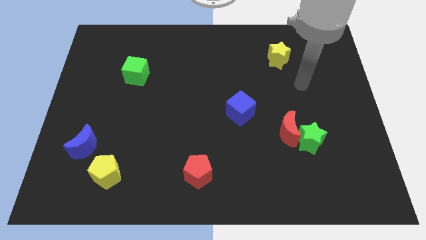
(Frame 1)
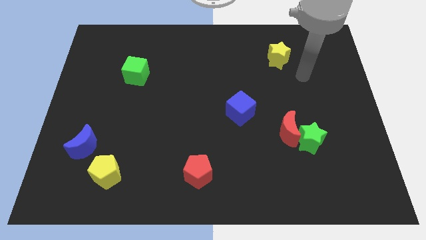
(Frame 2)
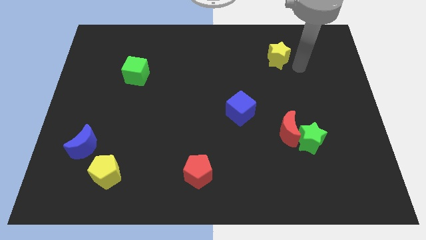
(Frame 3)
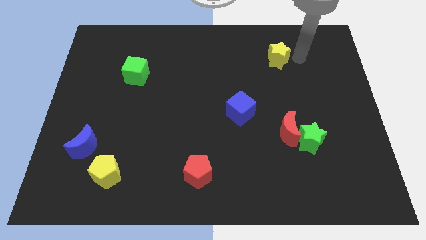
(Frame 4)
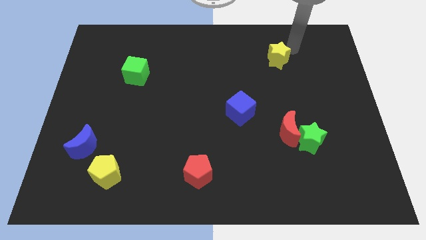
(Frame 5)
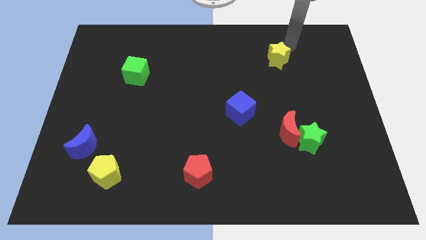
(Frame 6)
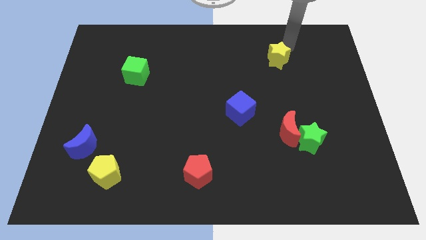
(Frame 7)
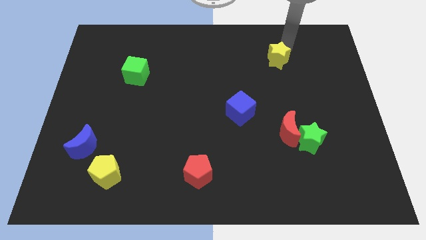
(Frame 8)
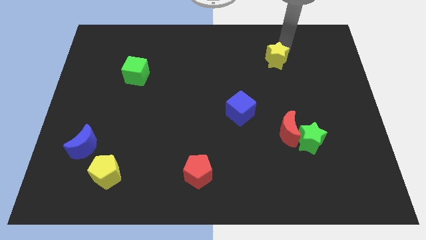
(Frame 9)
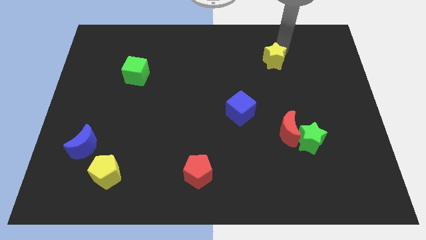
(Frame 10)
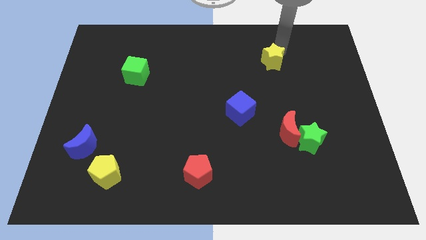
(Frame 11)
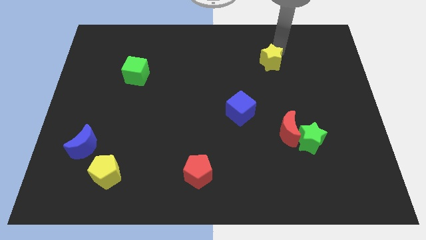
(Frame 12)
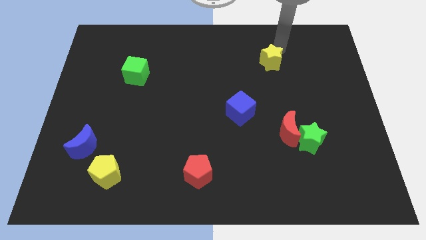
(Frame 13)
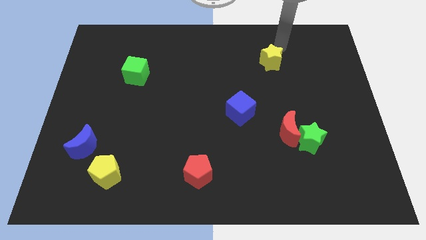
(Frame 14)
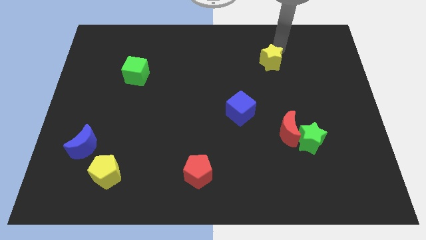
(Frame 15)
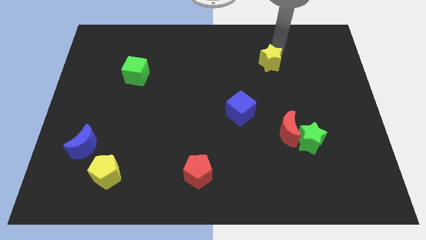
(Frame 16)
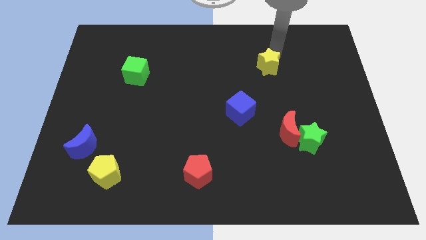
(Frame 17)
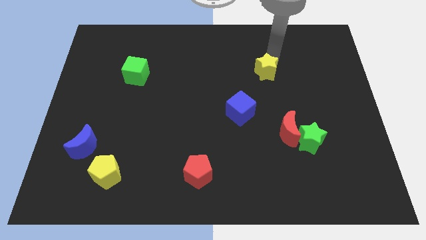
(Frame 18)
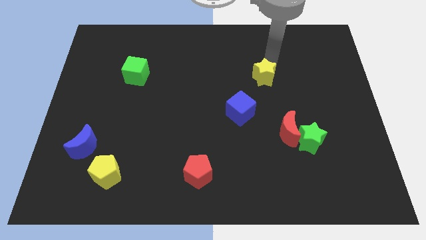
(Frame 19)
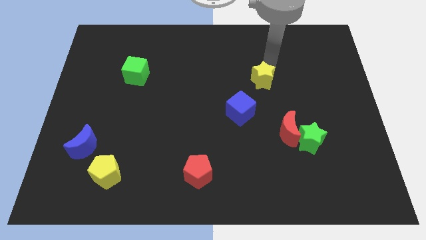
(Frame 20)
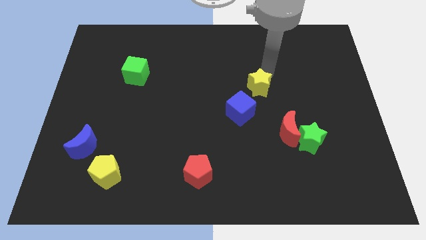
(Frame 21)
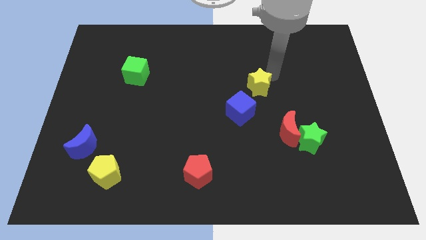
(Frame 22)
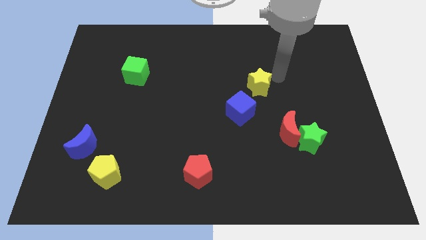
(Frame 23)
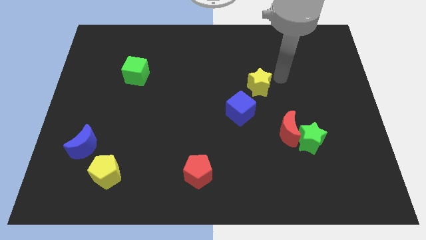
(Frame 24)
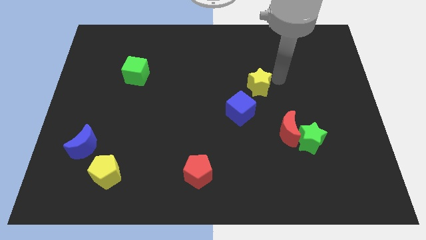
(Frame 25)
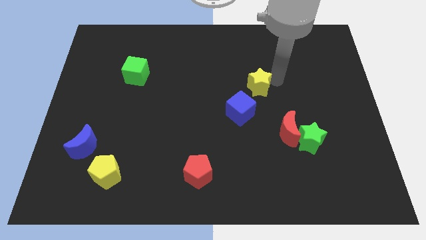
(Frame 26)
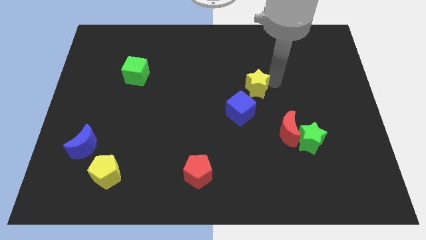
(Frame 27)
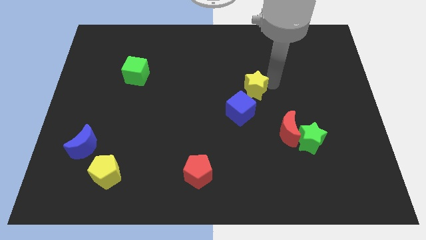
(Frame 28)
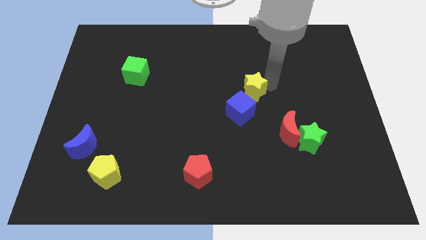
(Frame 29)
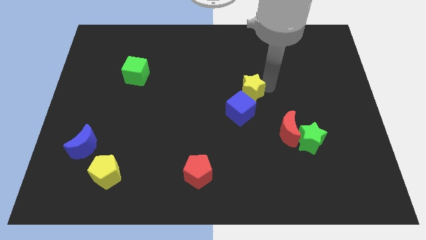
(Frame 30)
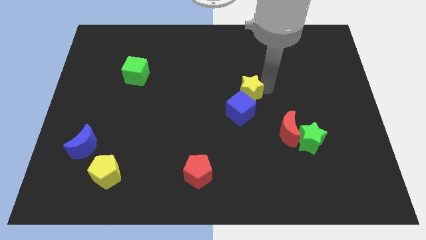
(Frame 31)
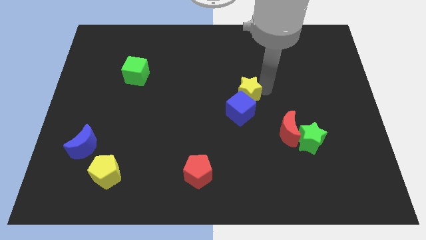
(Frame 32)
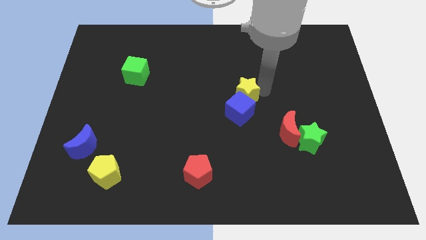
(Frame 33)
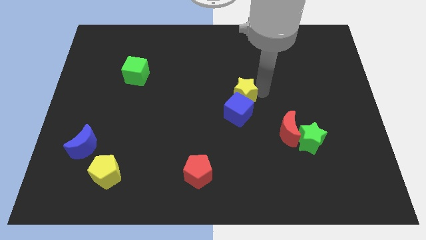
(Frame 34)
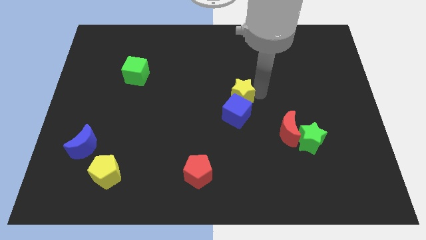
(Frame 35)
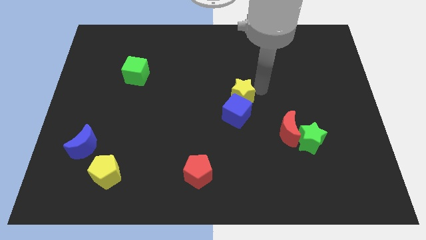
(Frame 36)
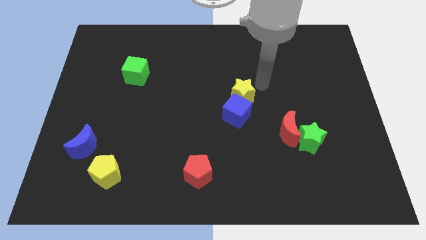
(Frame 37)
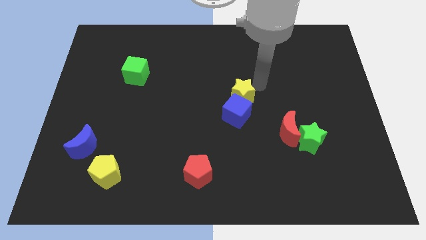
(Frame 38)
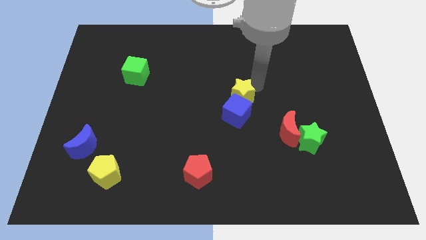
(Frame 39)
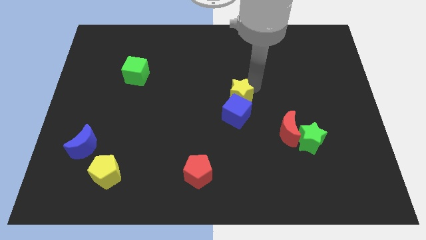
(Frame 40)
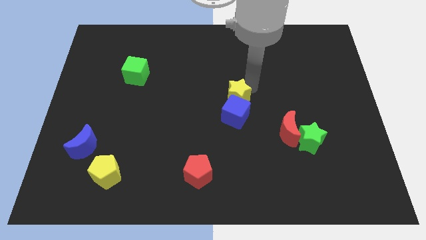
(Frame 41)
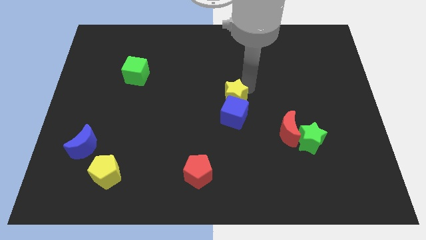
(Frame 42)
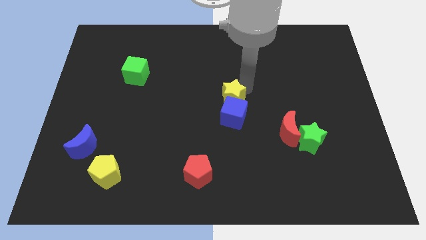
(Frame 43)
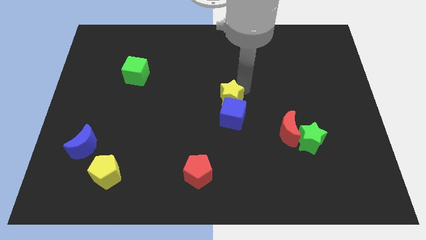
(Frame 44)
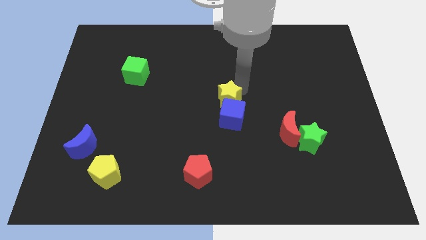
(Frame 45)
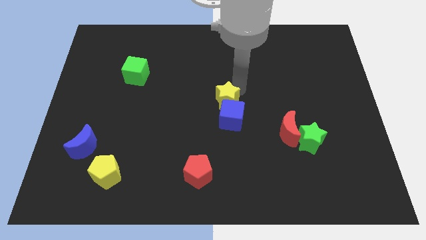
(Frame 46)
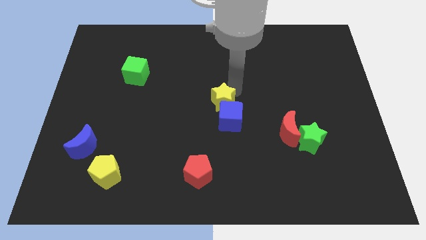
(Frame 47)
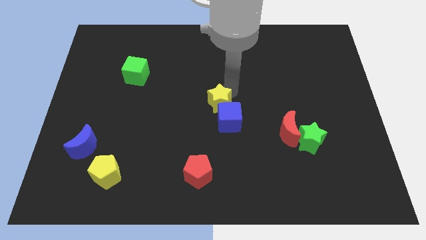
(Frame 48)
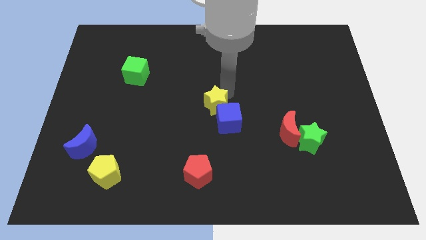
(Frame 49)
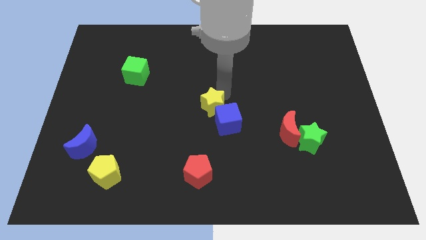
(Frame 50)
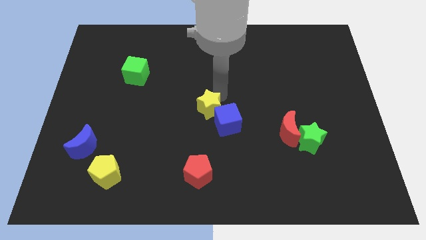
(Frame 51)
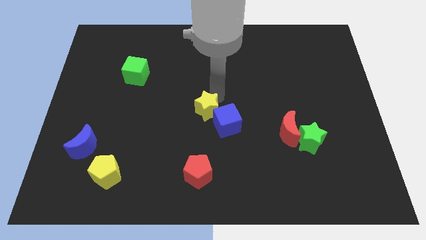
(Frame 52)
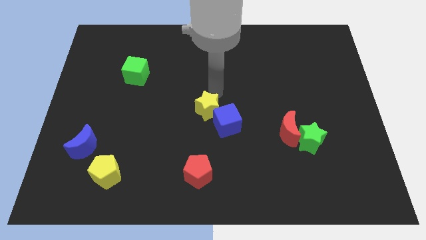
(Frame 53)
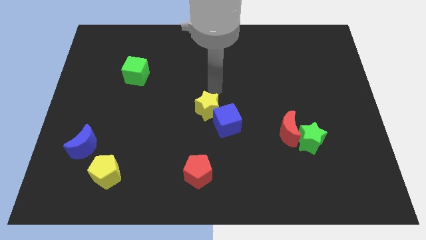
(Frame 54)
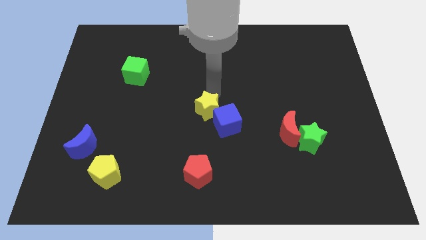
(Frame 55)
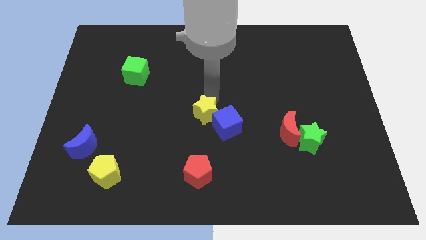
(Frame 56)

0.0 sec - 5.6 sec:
put the yellow star to the top side of the red pentagon

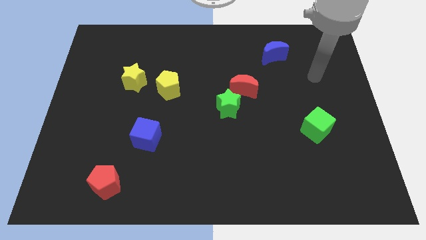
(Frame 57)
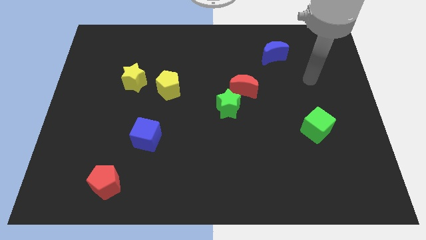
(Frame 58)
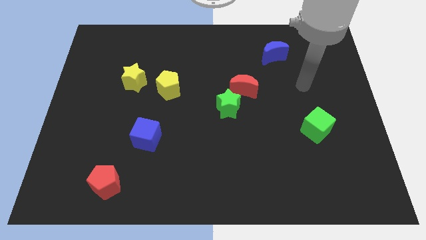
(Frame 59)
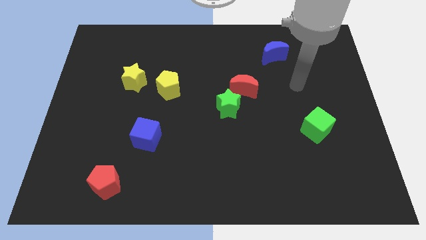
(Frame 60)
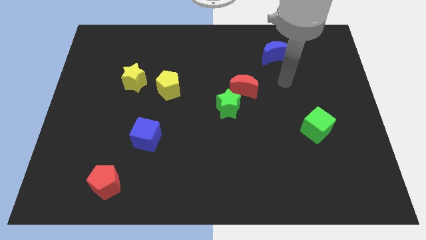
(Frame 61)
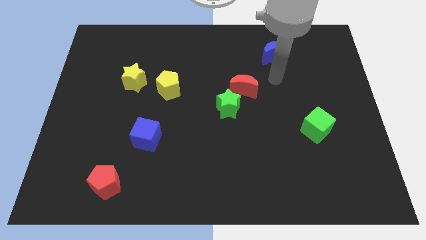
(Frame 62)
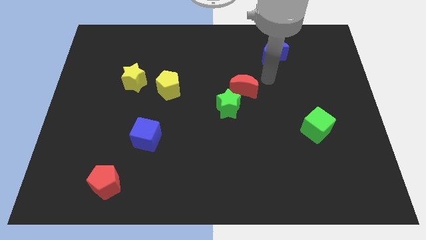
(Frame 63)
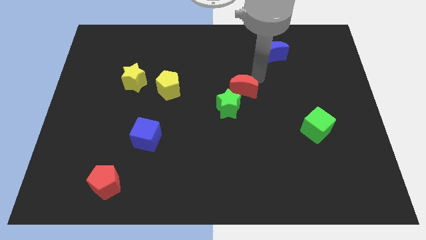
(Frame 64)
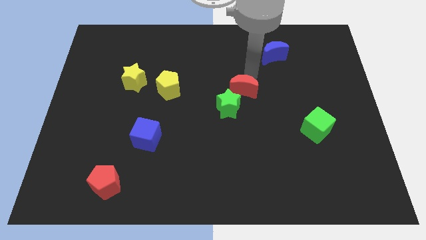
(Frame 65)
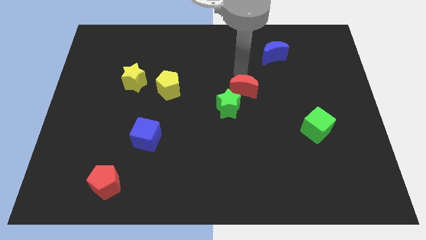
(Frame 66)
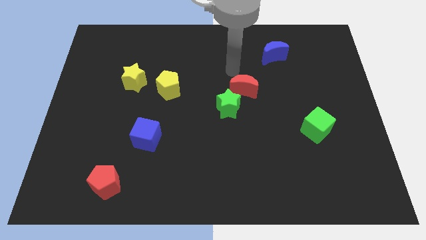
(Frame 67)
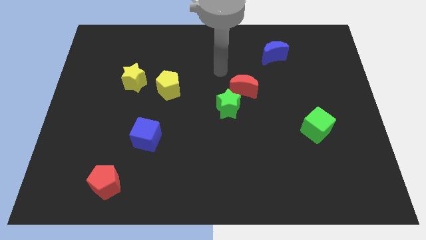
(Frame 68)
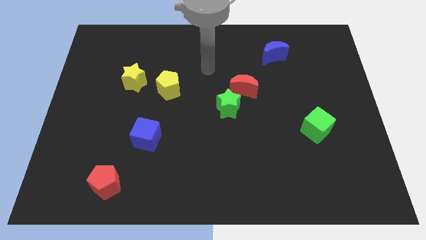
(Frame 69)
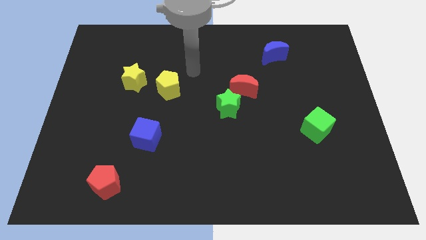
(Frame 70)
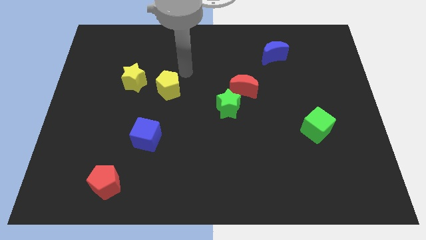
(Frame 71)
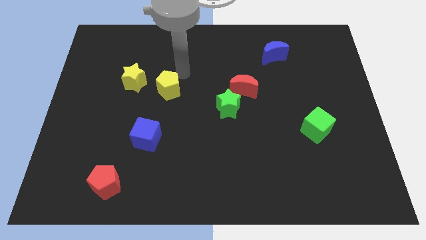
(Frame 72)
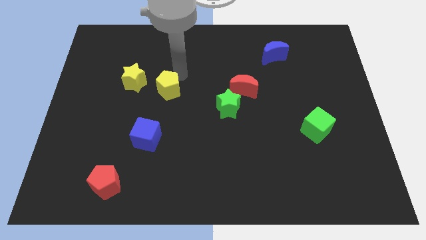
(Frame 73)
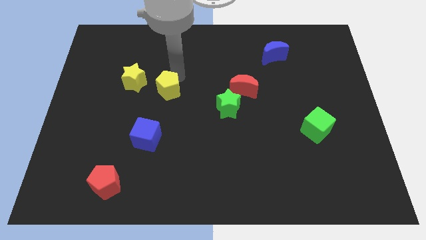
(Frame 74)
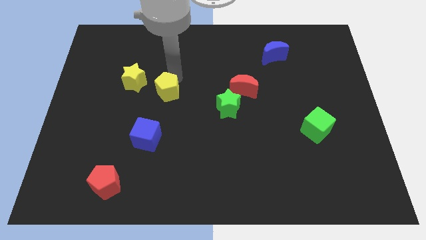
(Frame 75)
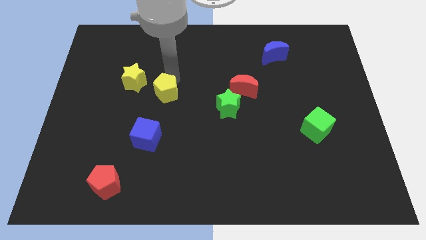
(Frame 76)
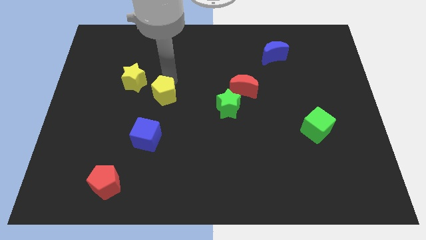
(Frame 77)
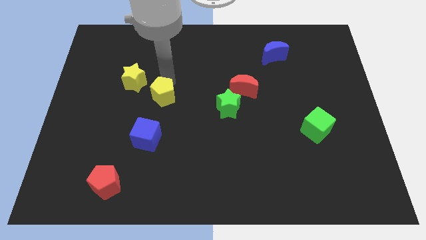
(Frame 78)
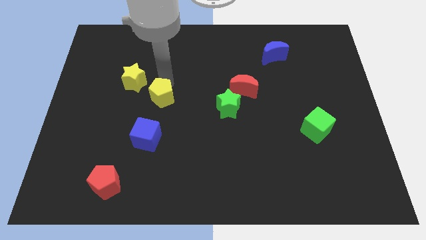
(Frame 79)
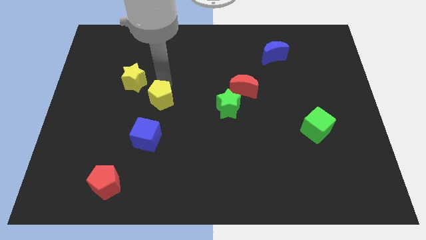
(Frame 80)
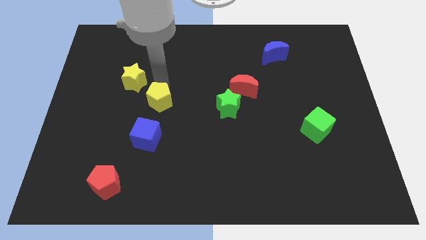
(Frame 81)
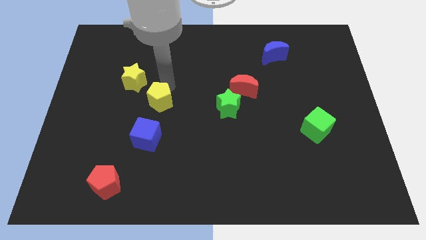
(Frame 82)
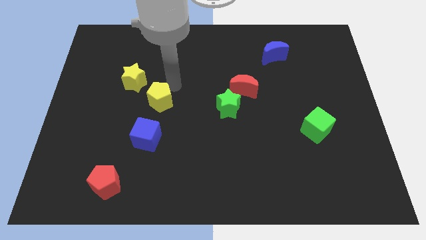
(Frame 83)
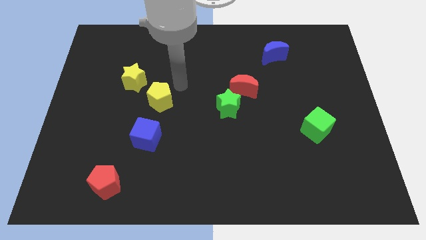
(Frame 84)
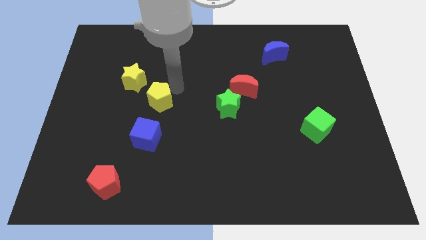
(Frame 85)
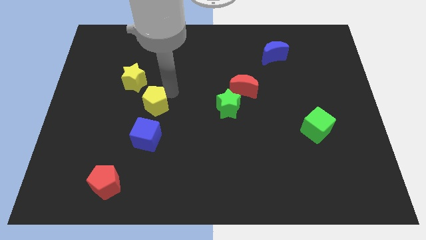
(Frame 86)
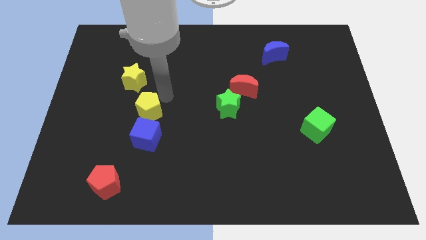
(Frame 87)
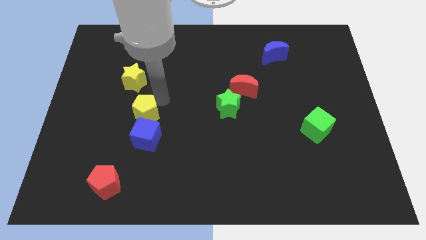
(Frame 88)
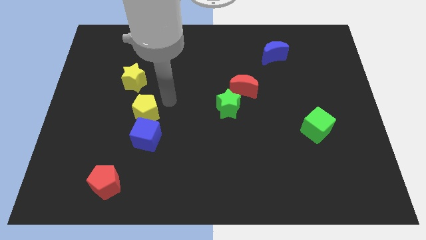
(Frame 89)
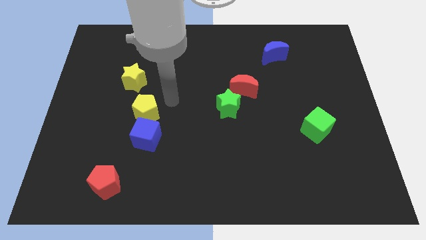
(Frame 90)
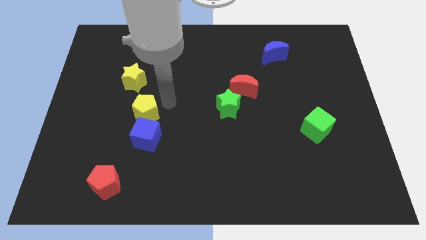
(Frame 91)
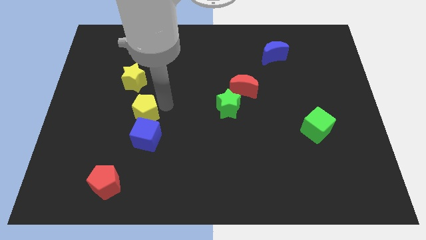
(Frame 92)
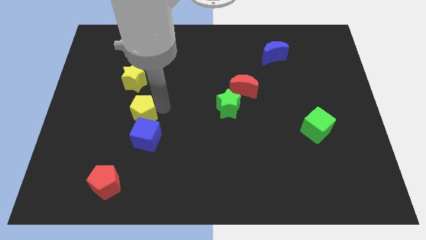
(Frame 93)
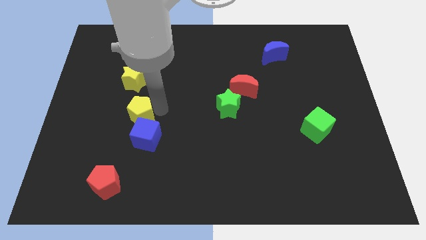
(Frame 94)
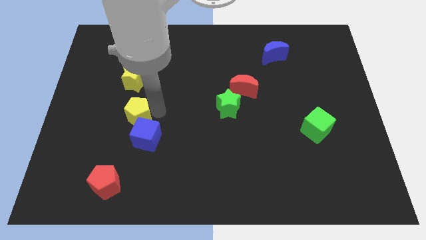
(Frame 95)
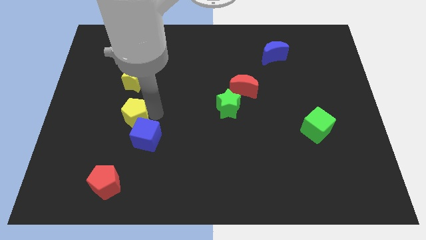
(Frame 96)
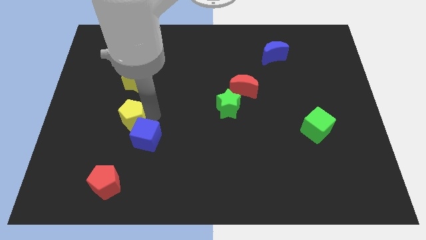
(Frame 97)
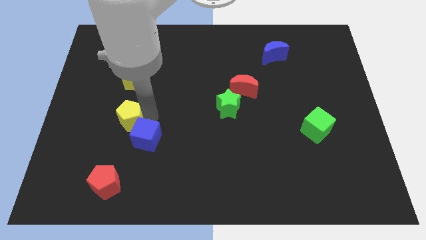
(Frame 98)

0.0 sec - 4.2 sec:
slide the yellow pentagon to the left of the blue cube
